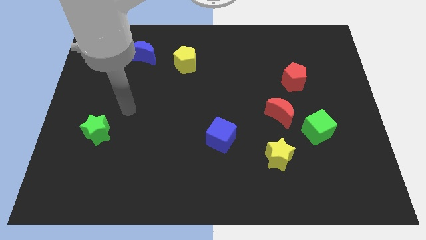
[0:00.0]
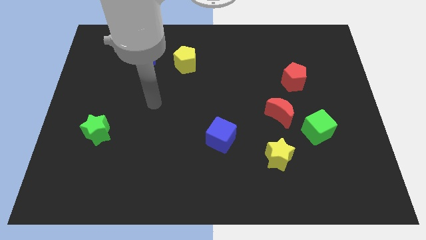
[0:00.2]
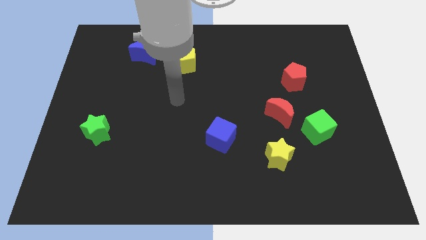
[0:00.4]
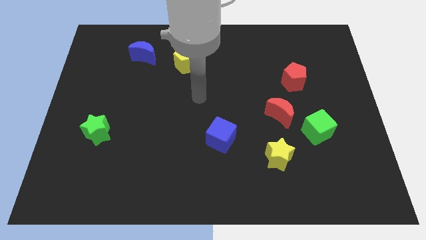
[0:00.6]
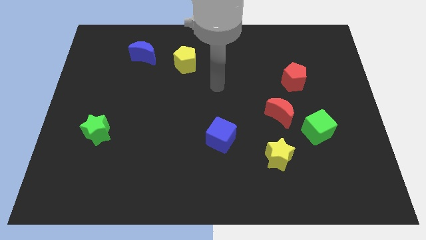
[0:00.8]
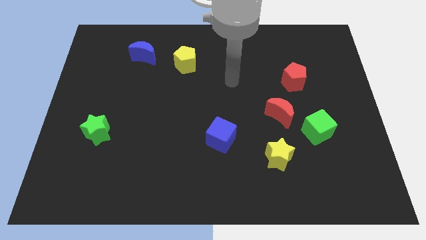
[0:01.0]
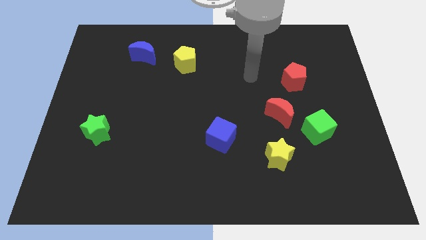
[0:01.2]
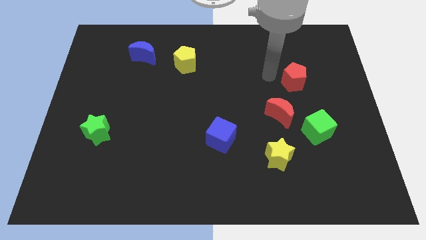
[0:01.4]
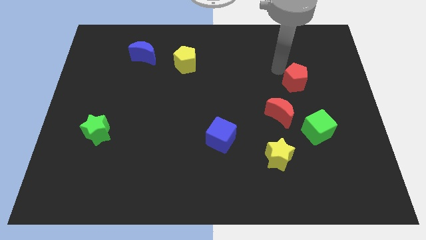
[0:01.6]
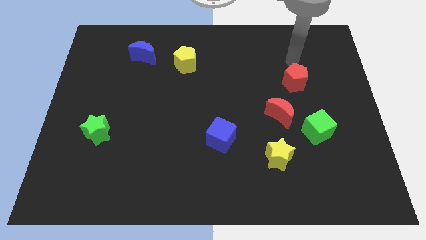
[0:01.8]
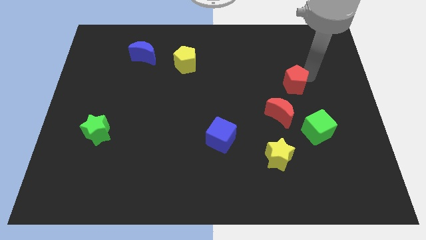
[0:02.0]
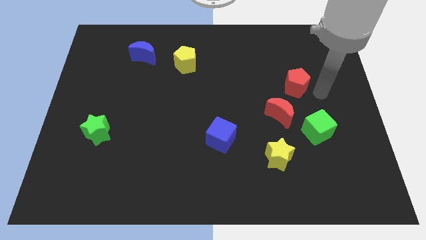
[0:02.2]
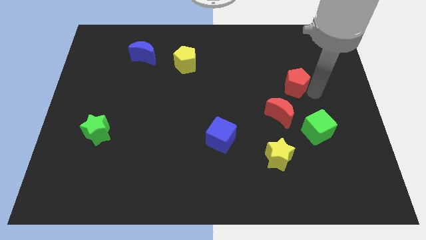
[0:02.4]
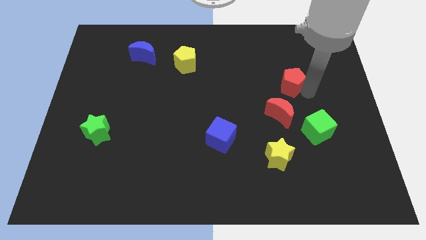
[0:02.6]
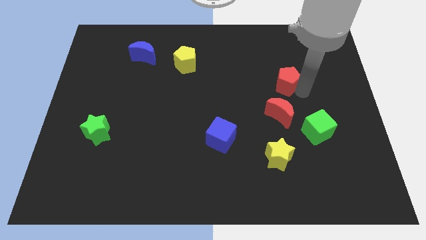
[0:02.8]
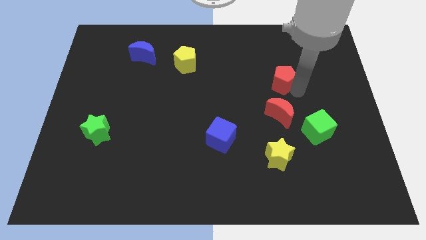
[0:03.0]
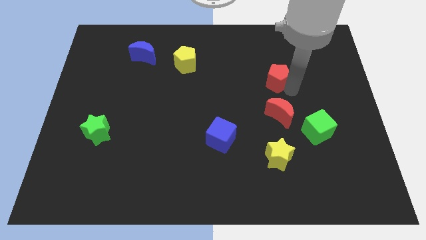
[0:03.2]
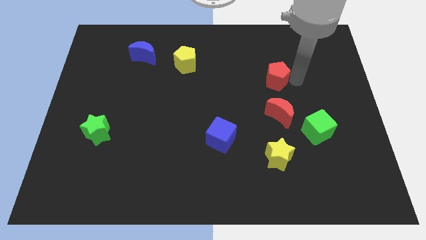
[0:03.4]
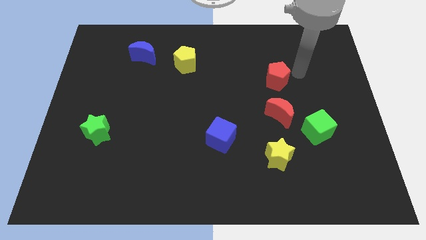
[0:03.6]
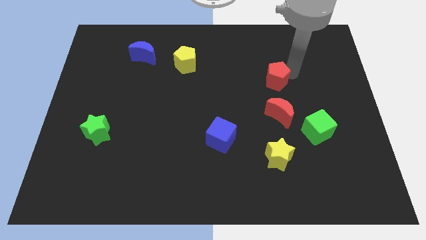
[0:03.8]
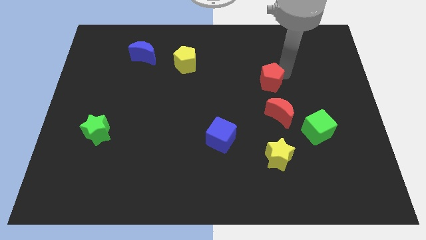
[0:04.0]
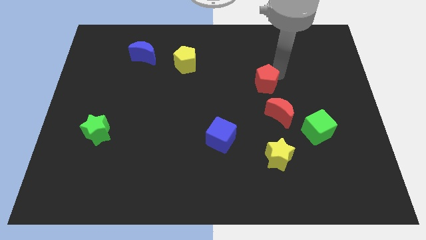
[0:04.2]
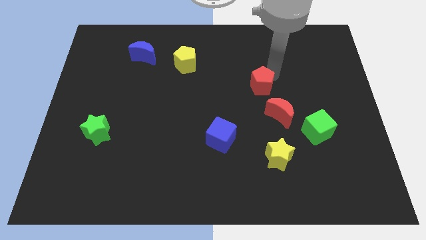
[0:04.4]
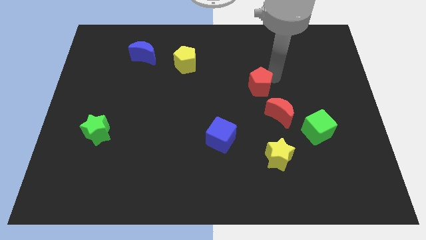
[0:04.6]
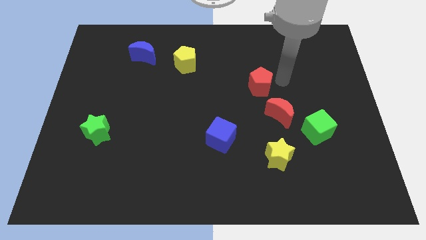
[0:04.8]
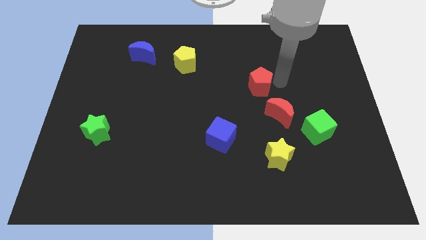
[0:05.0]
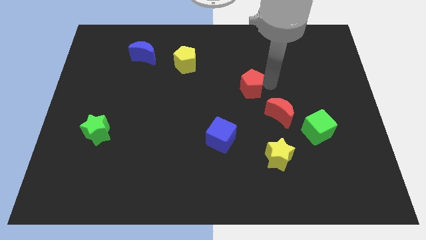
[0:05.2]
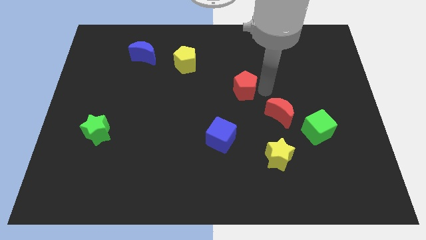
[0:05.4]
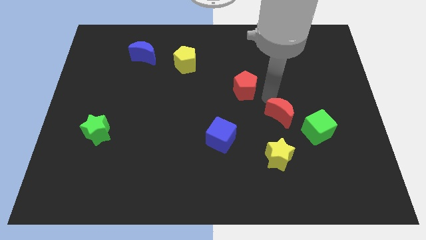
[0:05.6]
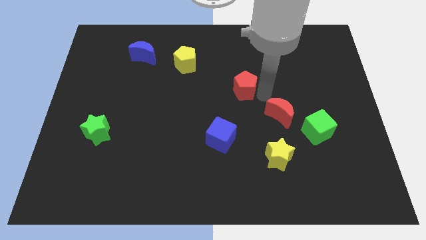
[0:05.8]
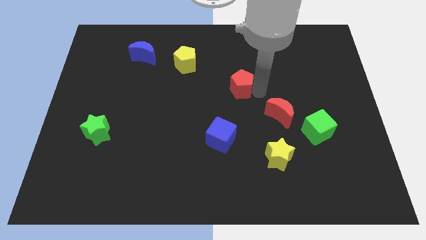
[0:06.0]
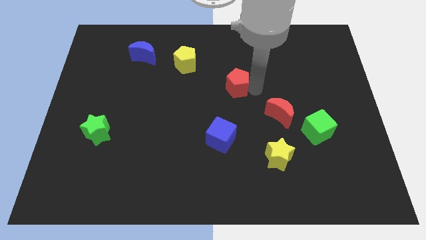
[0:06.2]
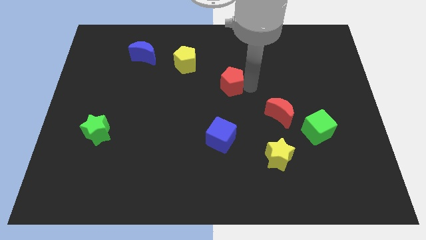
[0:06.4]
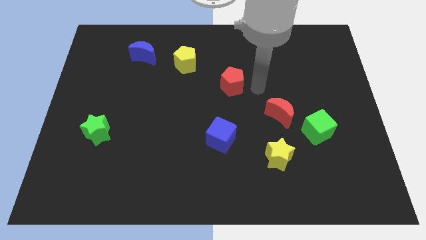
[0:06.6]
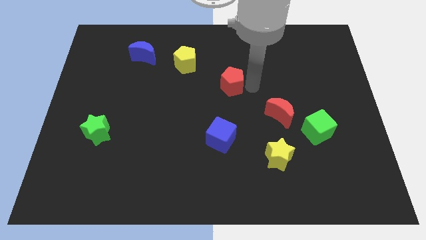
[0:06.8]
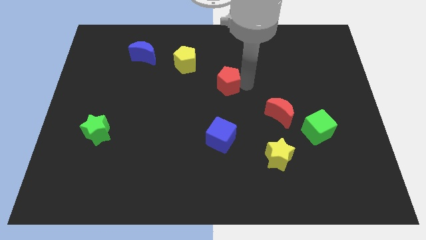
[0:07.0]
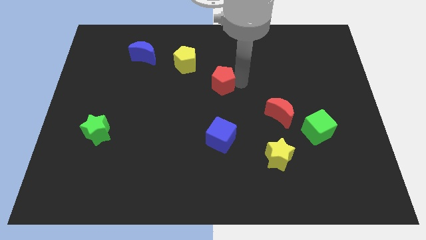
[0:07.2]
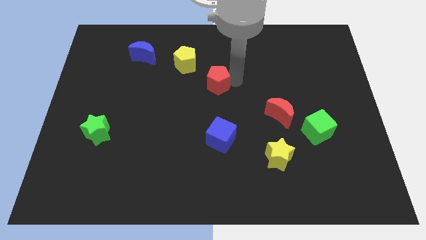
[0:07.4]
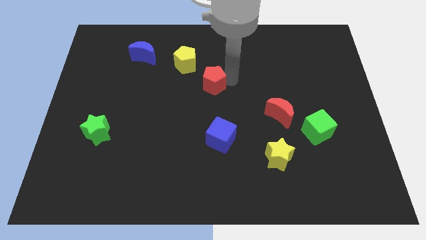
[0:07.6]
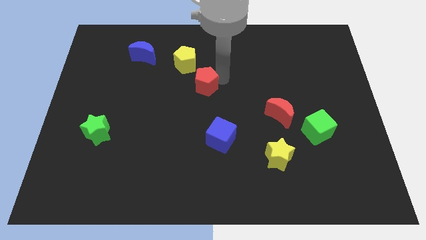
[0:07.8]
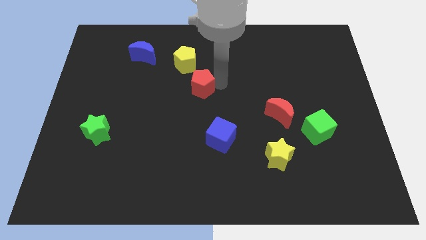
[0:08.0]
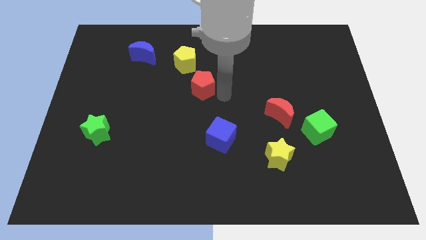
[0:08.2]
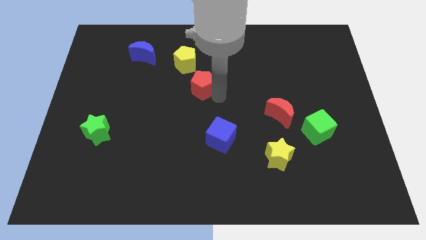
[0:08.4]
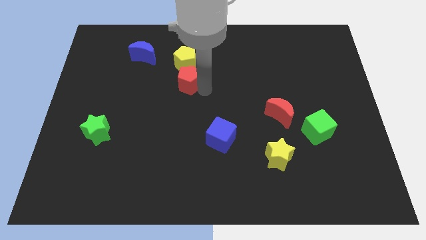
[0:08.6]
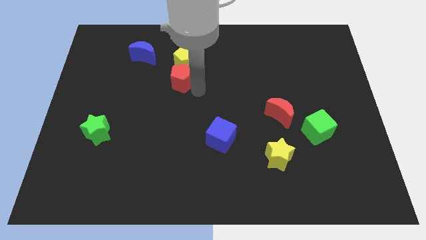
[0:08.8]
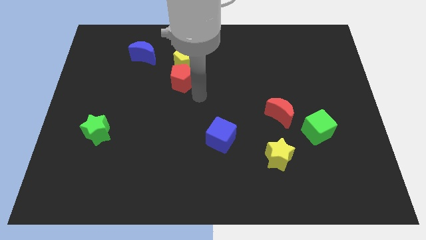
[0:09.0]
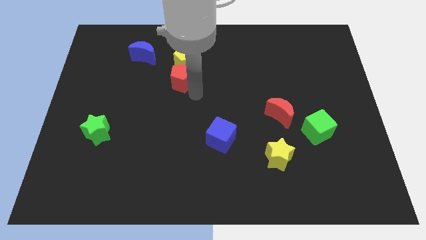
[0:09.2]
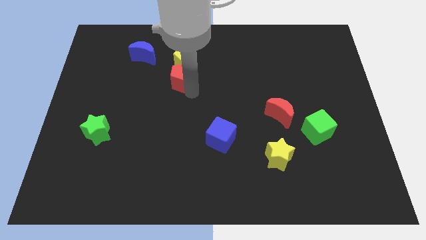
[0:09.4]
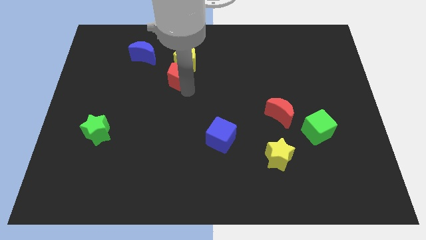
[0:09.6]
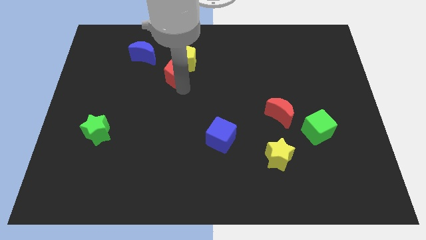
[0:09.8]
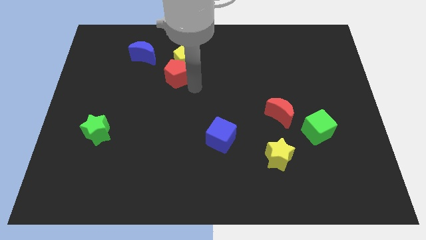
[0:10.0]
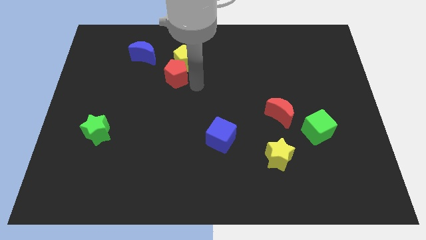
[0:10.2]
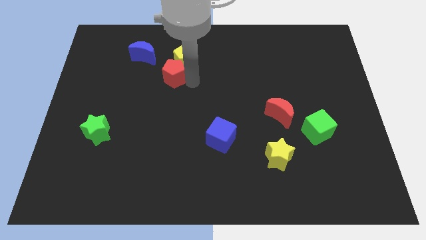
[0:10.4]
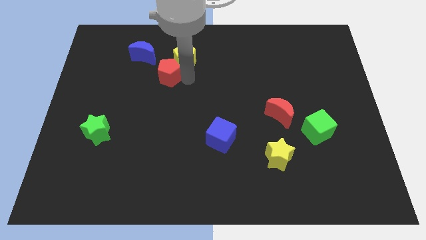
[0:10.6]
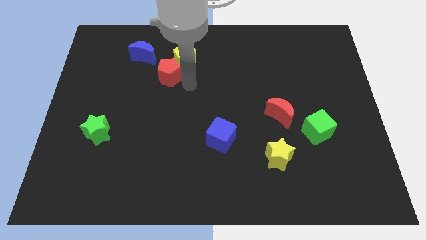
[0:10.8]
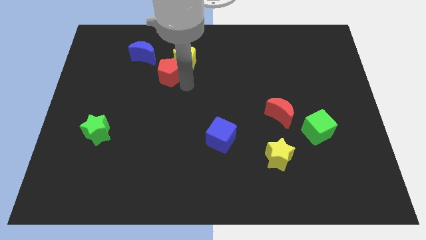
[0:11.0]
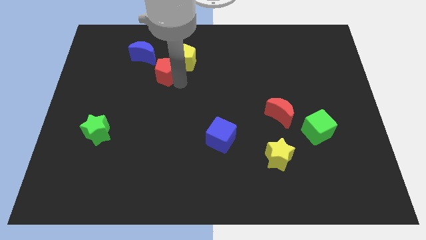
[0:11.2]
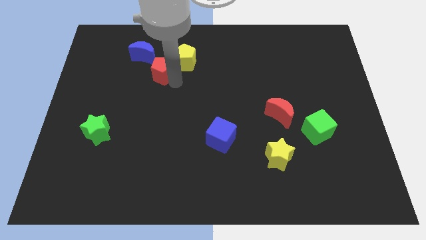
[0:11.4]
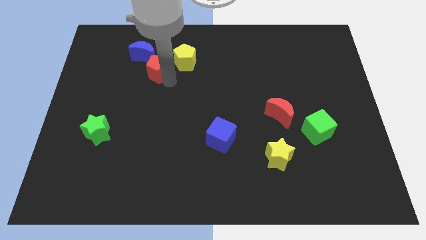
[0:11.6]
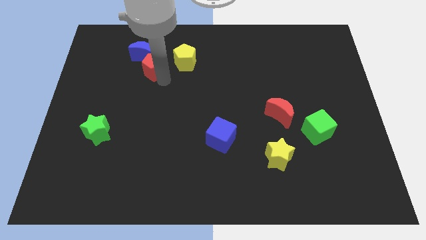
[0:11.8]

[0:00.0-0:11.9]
move the red pentagon to the blue moon

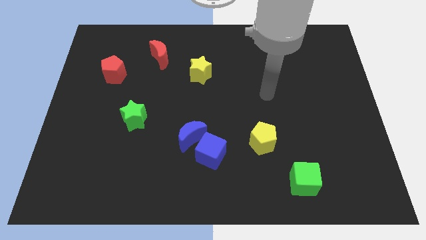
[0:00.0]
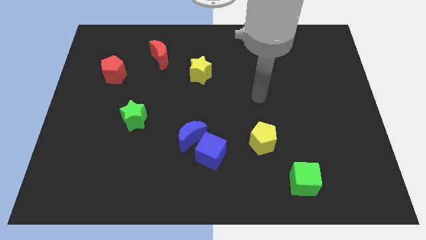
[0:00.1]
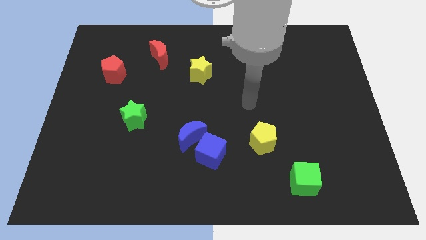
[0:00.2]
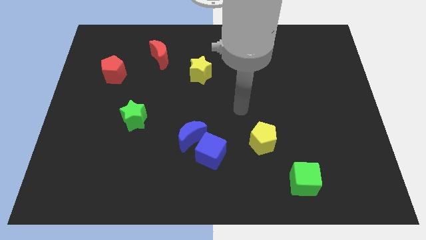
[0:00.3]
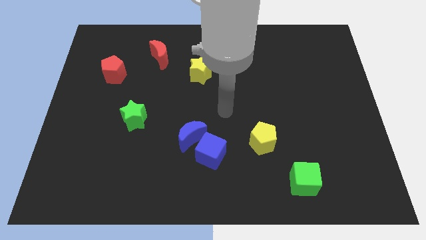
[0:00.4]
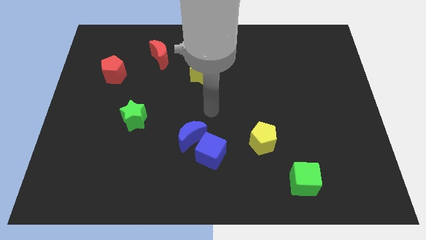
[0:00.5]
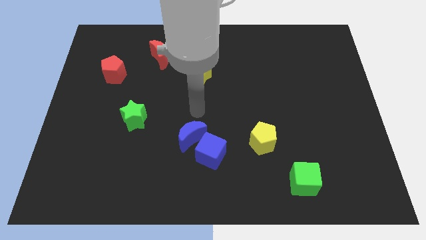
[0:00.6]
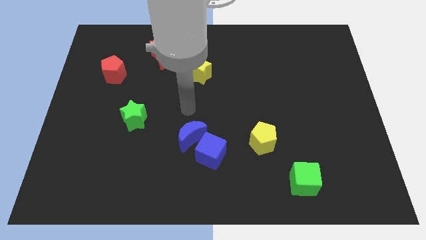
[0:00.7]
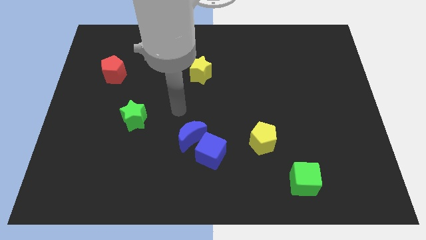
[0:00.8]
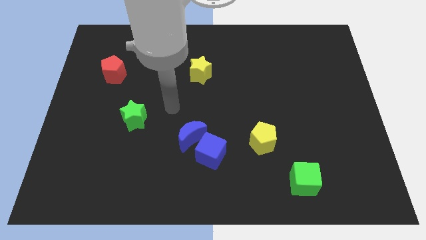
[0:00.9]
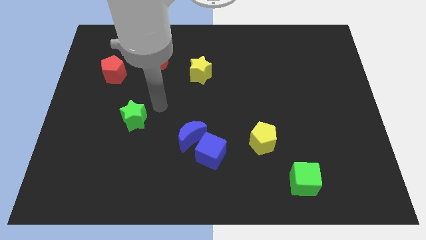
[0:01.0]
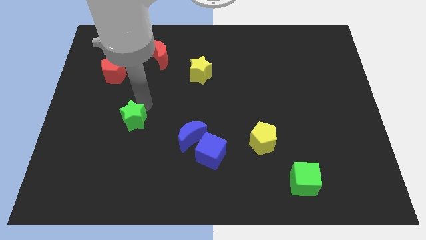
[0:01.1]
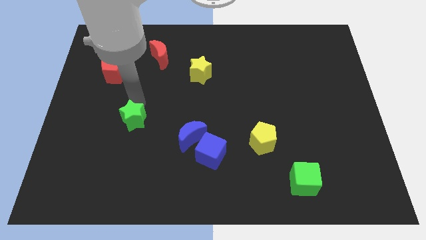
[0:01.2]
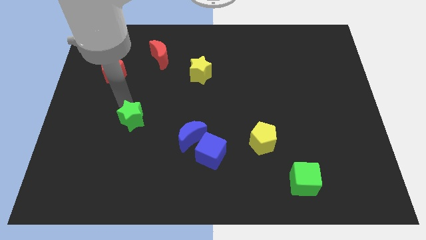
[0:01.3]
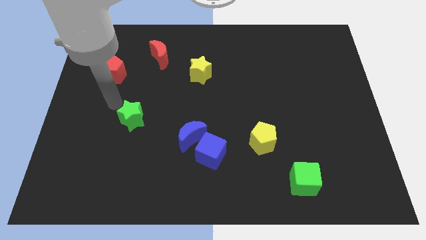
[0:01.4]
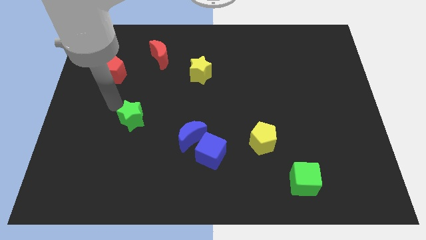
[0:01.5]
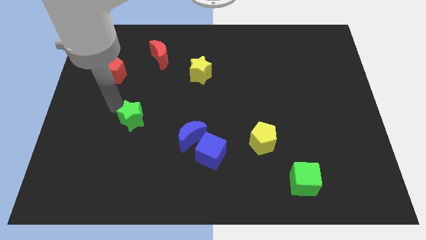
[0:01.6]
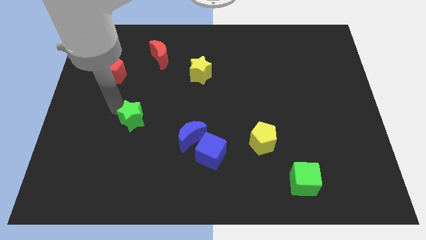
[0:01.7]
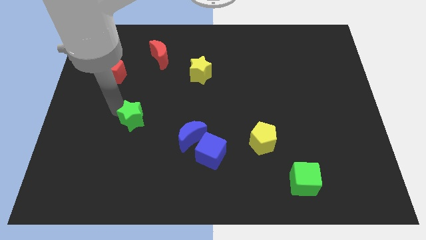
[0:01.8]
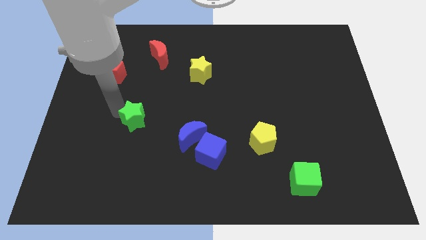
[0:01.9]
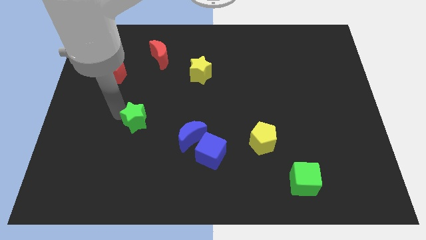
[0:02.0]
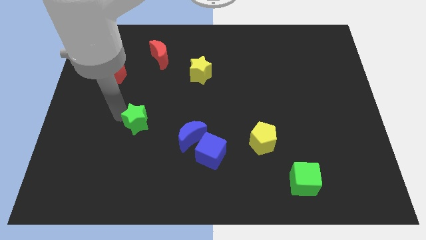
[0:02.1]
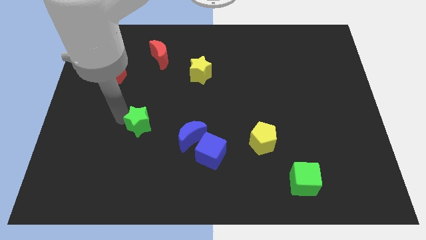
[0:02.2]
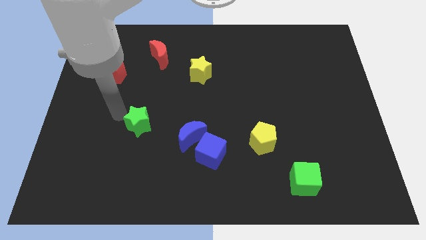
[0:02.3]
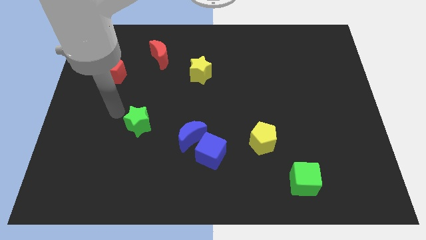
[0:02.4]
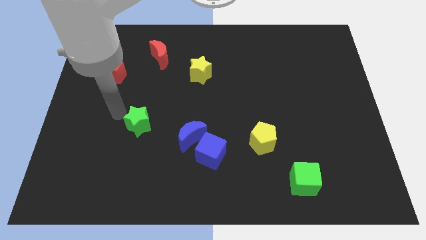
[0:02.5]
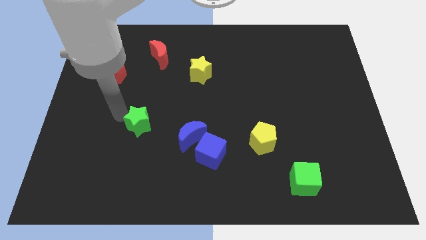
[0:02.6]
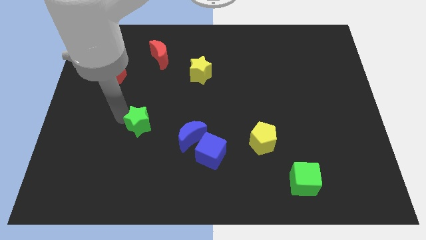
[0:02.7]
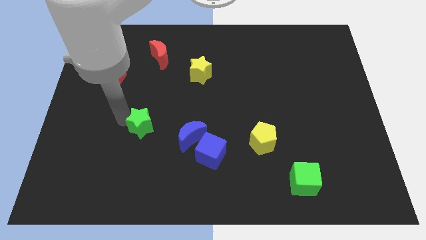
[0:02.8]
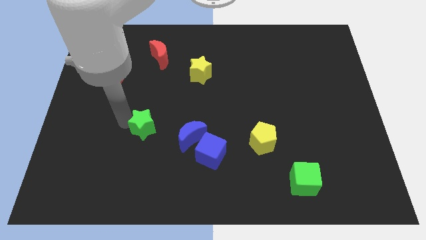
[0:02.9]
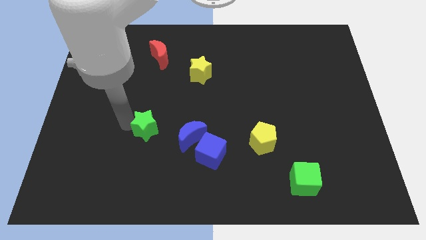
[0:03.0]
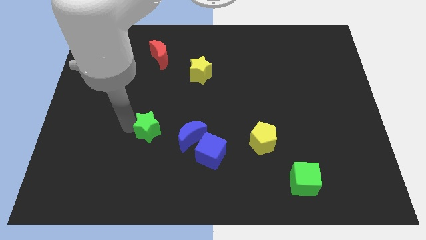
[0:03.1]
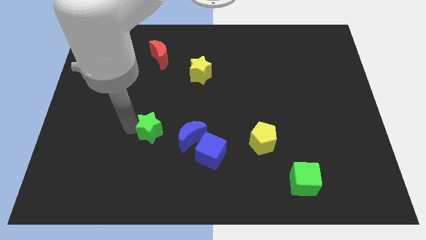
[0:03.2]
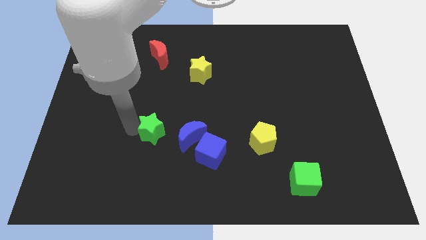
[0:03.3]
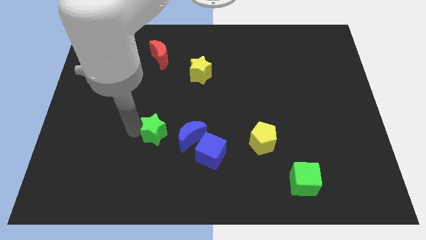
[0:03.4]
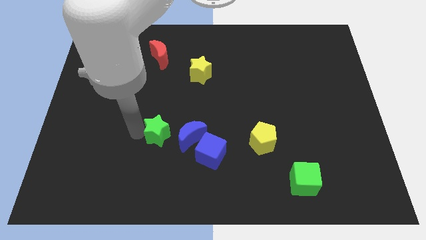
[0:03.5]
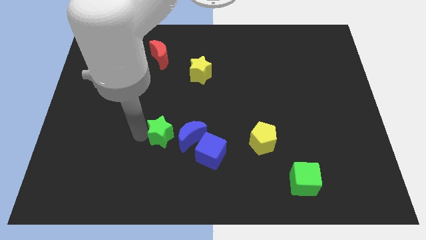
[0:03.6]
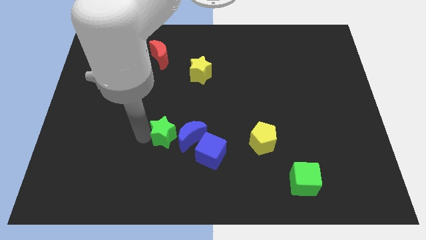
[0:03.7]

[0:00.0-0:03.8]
slide the green star towards the blue moon
